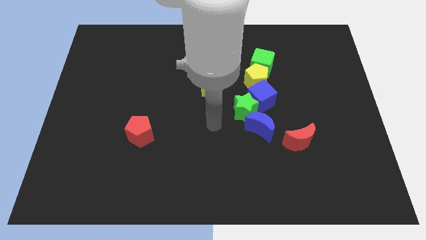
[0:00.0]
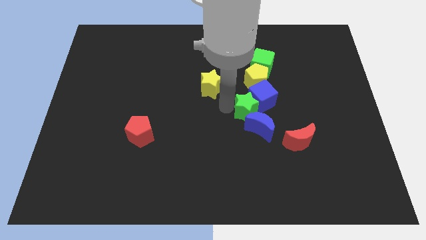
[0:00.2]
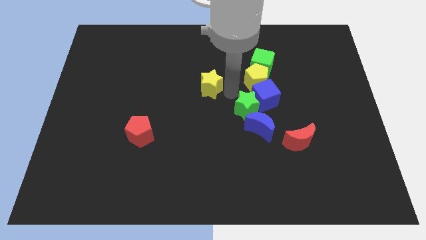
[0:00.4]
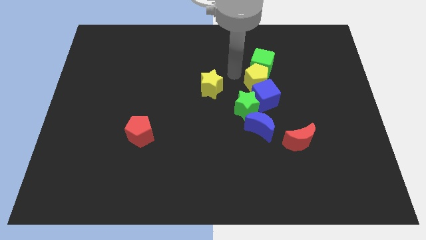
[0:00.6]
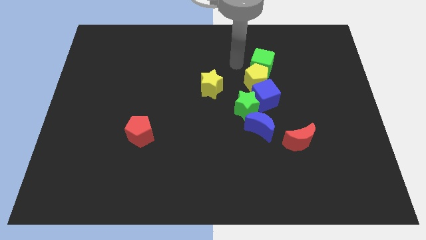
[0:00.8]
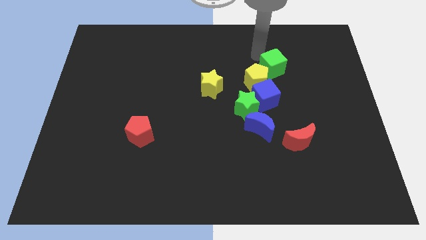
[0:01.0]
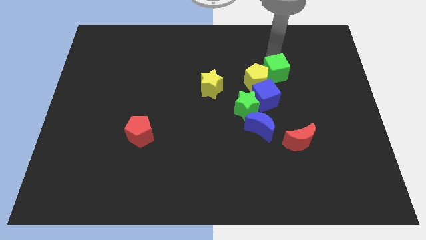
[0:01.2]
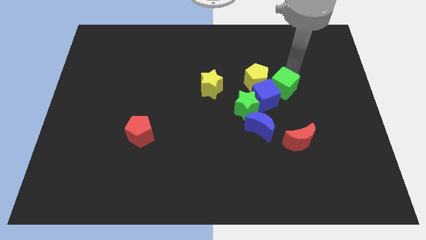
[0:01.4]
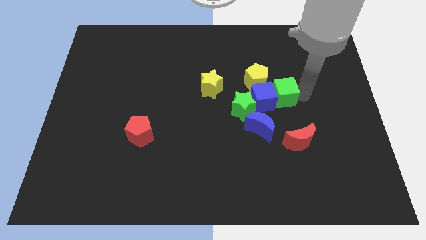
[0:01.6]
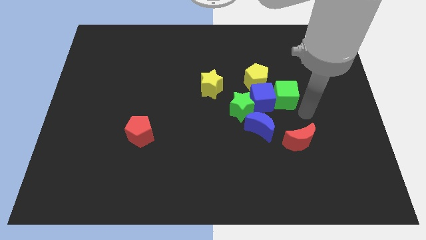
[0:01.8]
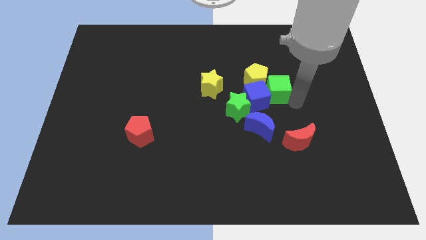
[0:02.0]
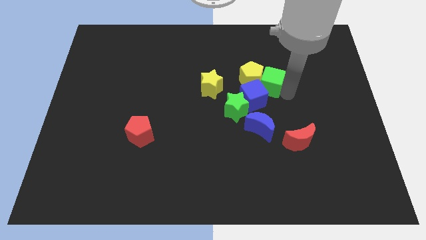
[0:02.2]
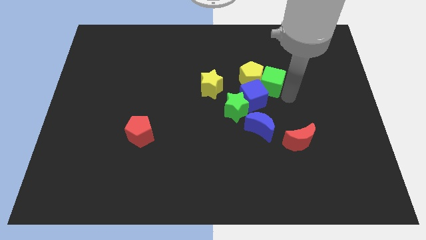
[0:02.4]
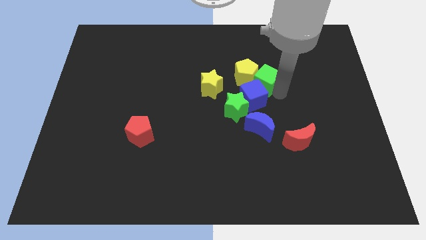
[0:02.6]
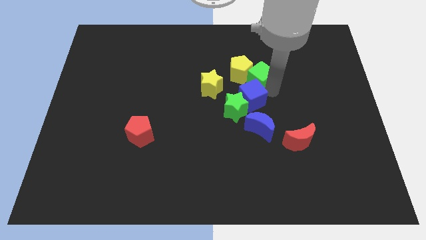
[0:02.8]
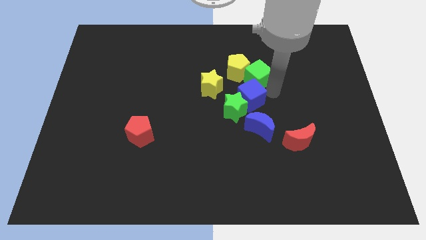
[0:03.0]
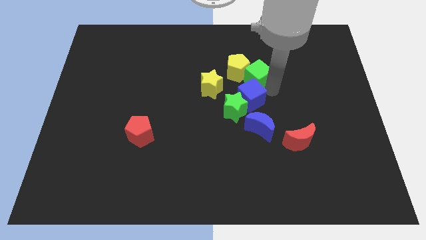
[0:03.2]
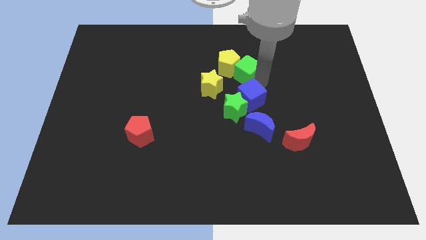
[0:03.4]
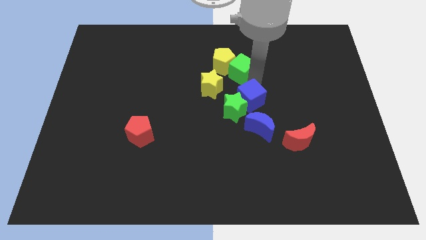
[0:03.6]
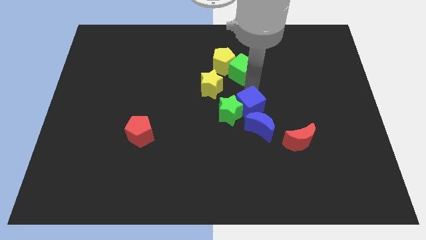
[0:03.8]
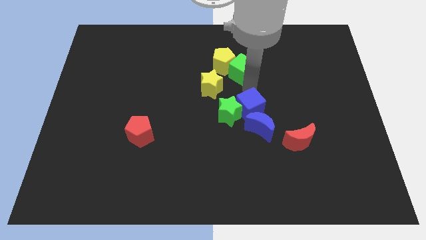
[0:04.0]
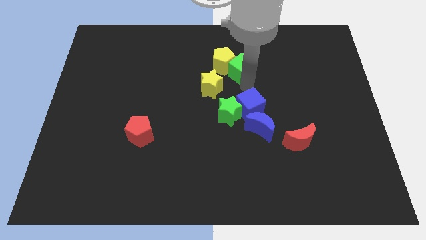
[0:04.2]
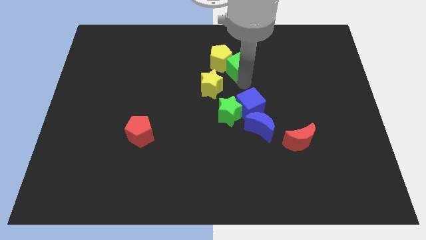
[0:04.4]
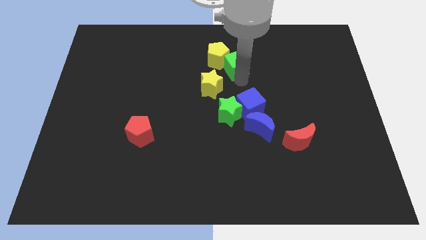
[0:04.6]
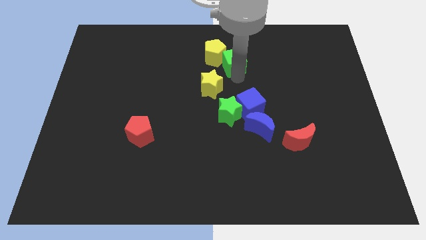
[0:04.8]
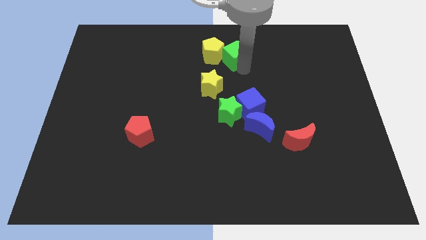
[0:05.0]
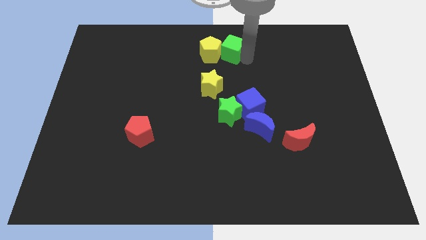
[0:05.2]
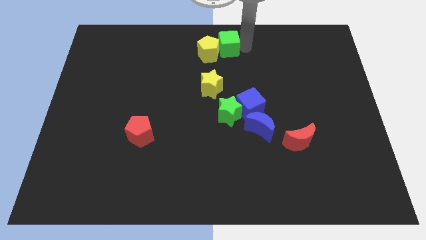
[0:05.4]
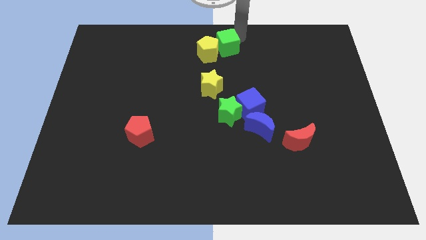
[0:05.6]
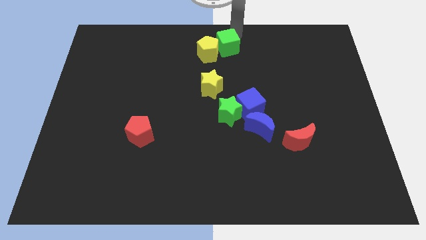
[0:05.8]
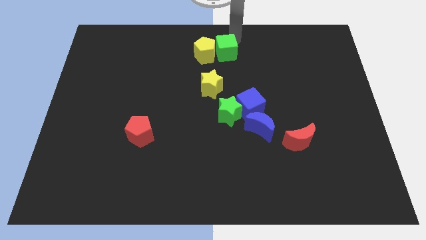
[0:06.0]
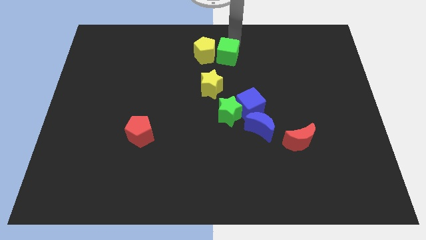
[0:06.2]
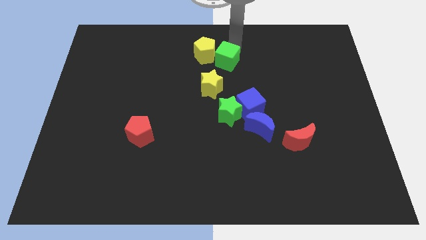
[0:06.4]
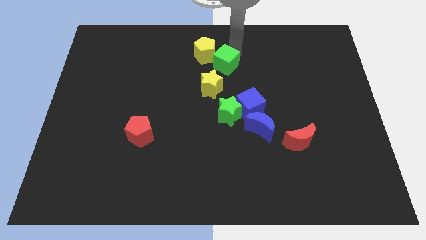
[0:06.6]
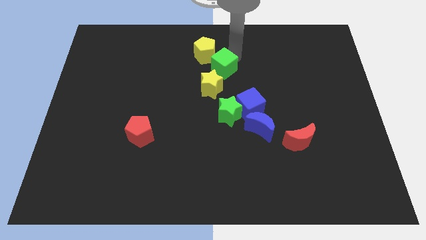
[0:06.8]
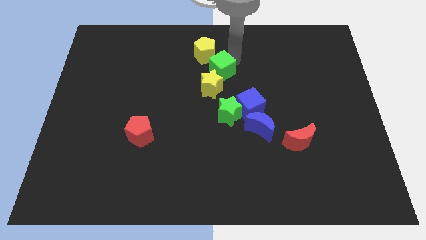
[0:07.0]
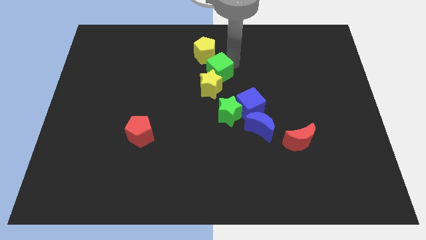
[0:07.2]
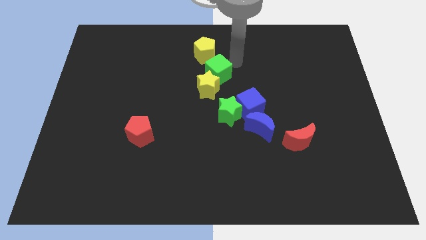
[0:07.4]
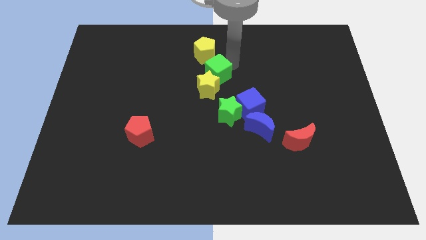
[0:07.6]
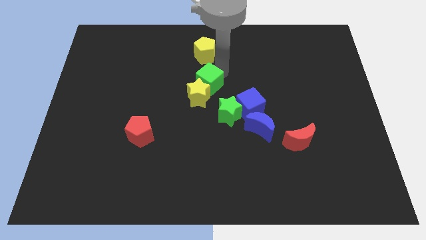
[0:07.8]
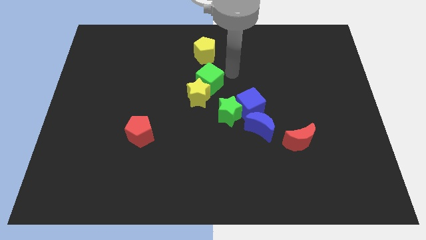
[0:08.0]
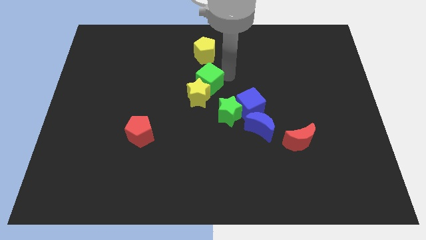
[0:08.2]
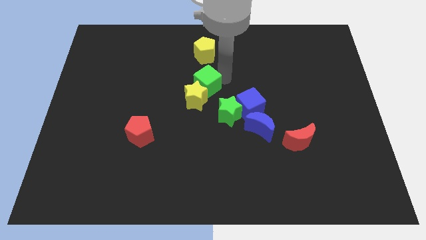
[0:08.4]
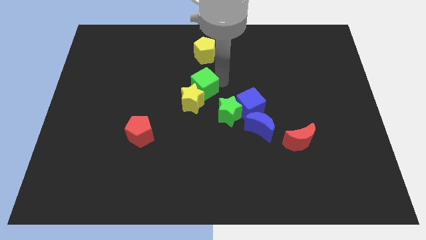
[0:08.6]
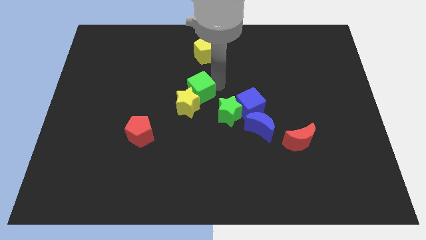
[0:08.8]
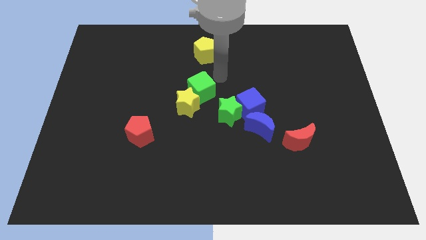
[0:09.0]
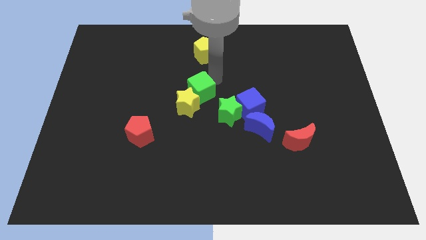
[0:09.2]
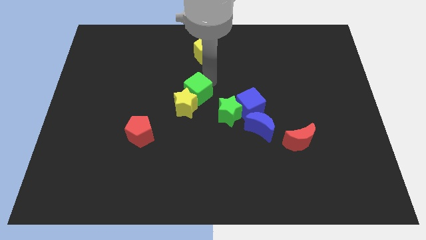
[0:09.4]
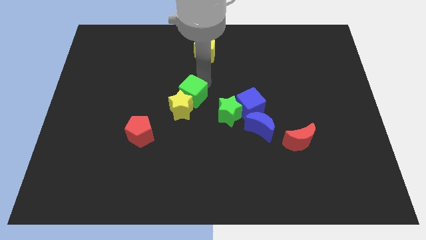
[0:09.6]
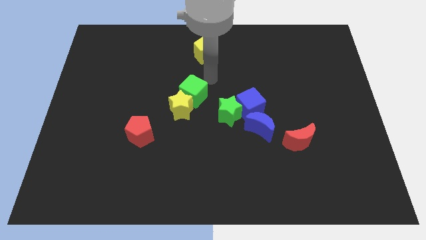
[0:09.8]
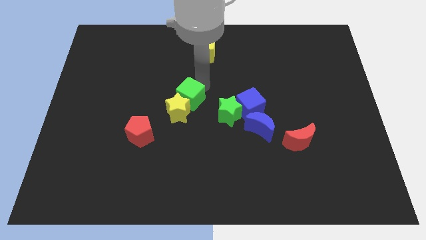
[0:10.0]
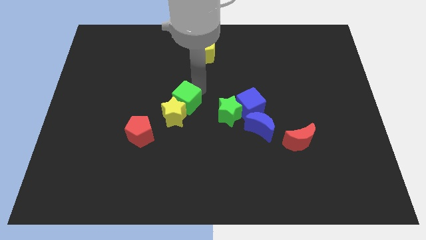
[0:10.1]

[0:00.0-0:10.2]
push the green cube diagonally down and to the left

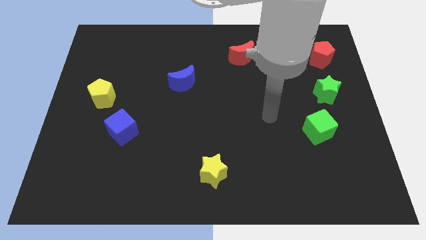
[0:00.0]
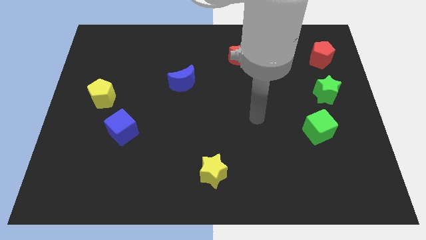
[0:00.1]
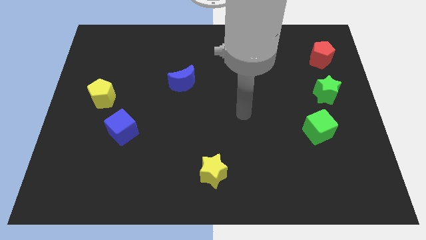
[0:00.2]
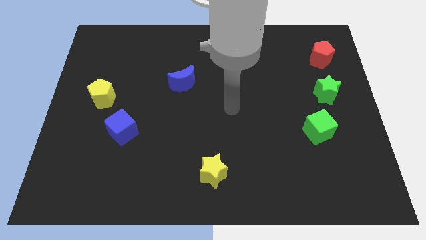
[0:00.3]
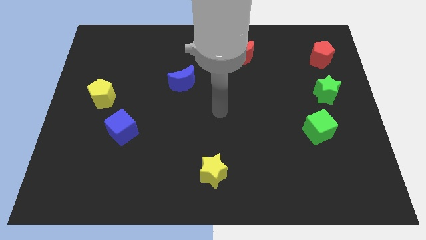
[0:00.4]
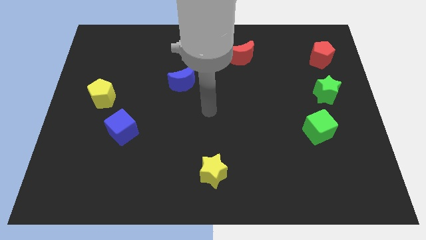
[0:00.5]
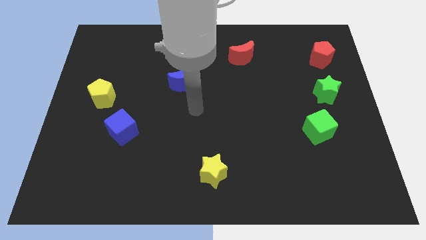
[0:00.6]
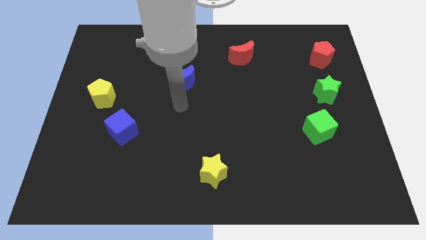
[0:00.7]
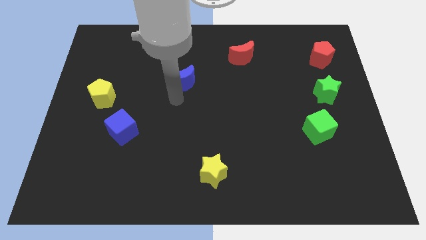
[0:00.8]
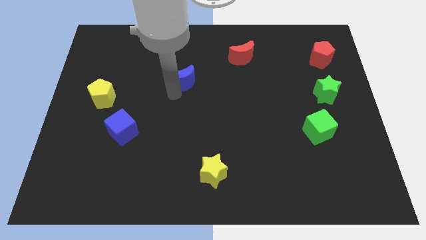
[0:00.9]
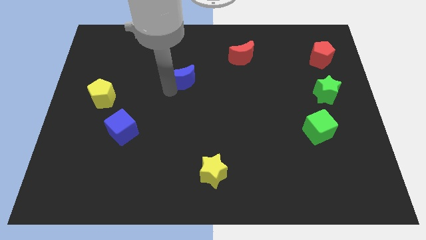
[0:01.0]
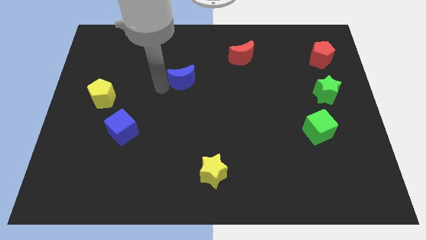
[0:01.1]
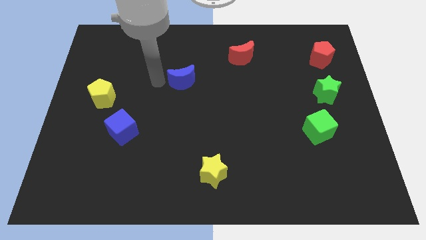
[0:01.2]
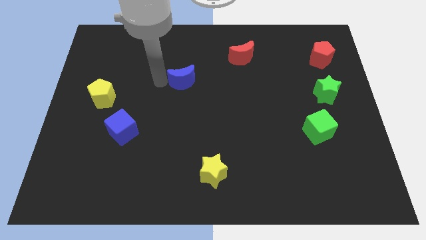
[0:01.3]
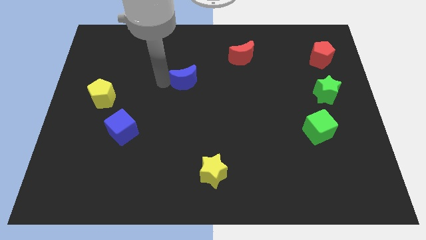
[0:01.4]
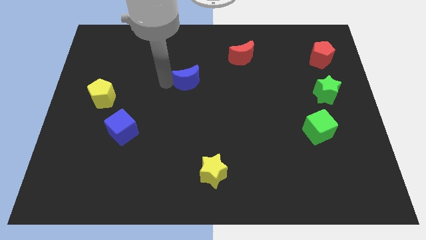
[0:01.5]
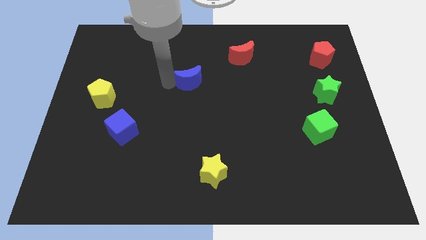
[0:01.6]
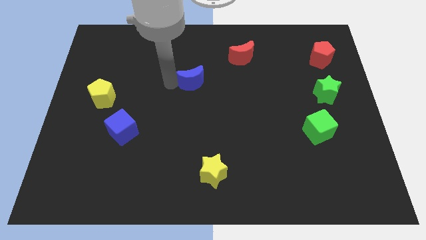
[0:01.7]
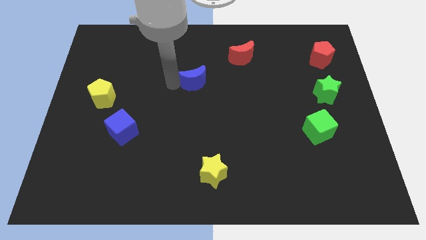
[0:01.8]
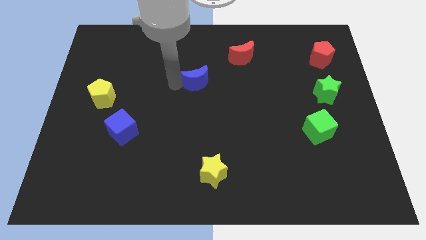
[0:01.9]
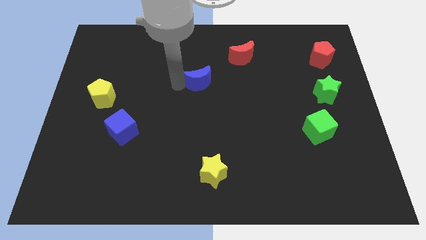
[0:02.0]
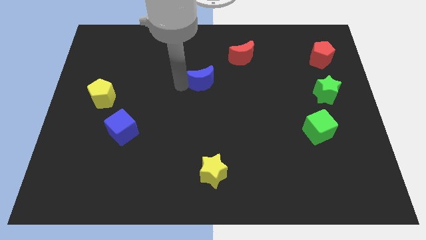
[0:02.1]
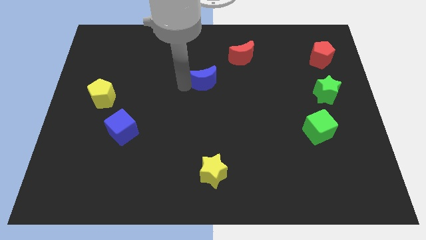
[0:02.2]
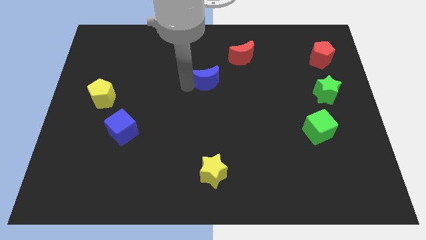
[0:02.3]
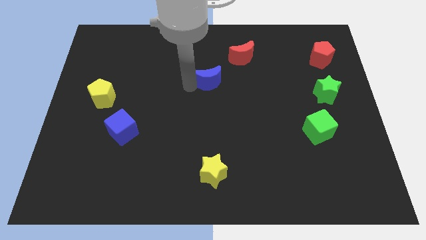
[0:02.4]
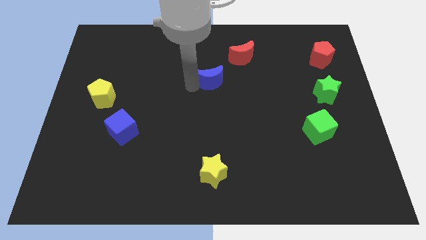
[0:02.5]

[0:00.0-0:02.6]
slide the blue moon a little to the right

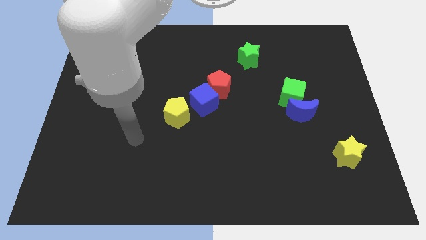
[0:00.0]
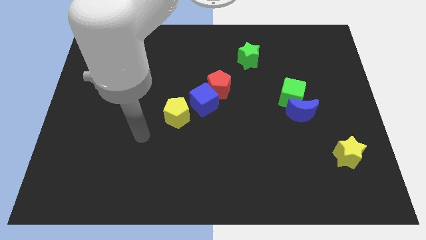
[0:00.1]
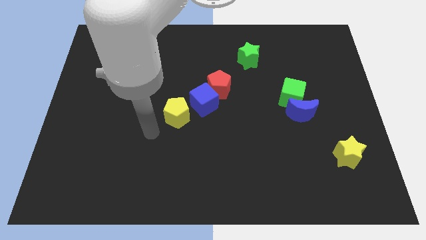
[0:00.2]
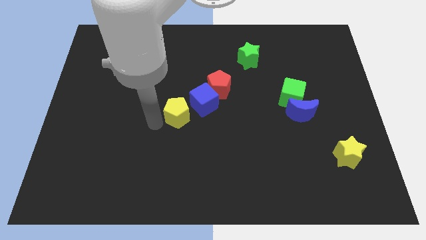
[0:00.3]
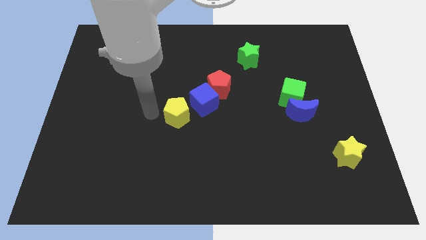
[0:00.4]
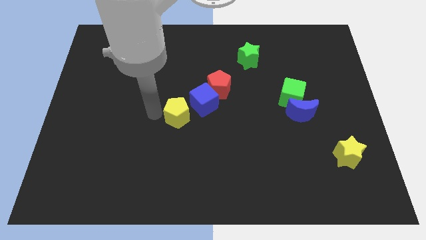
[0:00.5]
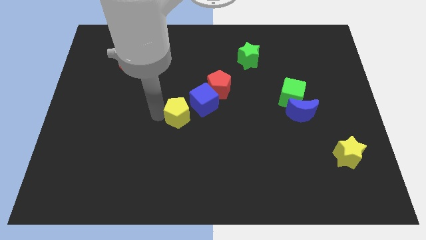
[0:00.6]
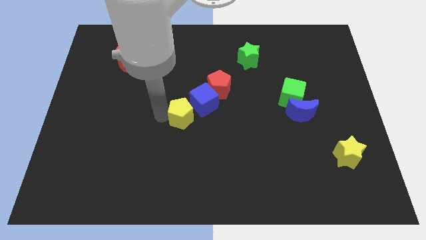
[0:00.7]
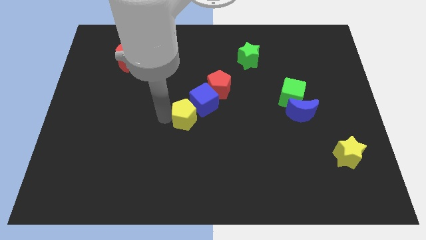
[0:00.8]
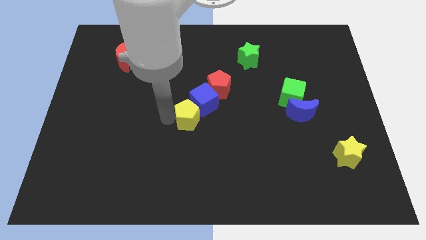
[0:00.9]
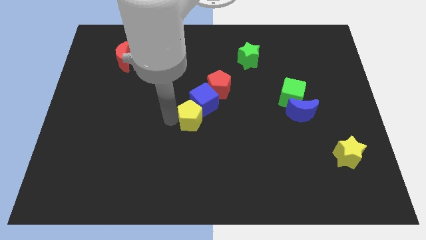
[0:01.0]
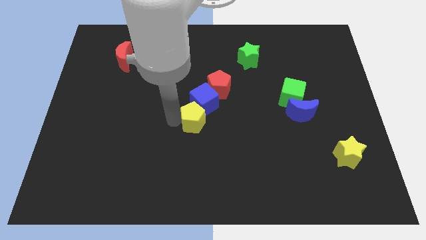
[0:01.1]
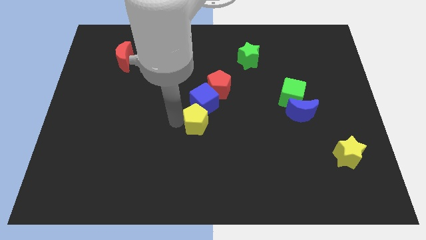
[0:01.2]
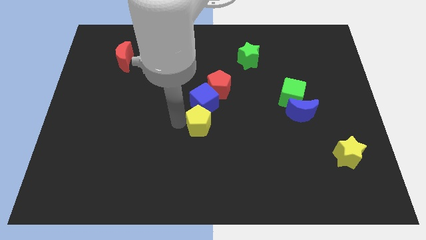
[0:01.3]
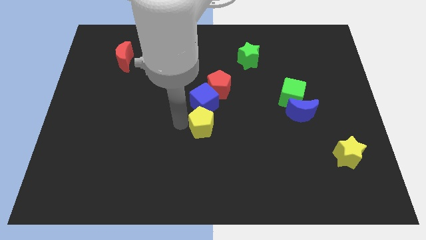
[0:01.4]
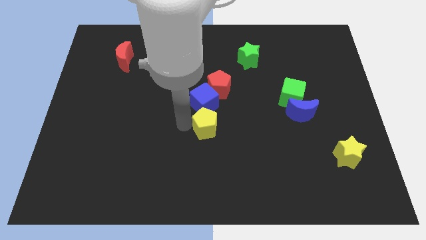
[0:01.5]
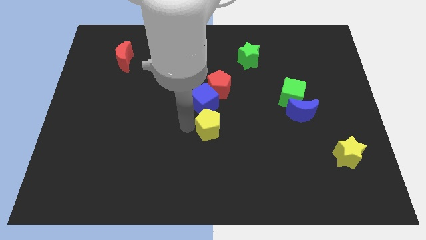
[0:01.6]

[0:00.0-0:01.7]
slide the yellow pentagon a little to the right
